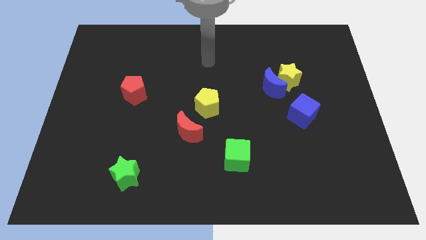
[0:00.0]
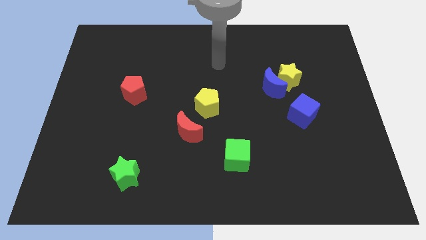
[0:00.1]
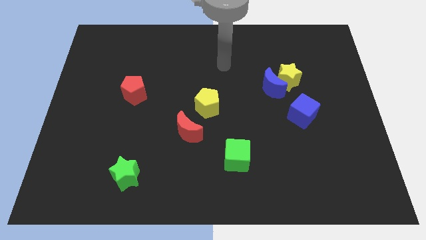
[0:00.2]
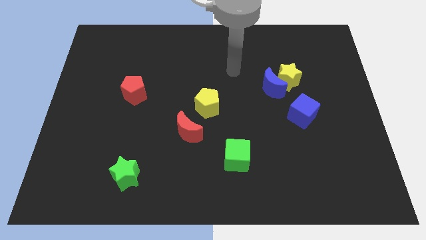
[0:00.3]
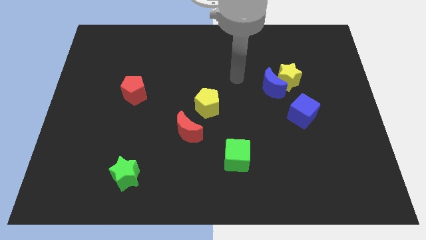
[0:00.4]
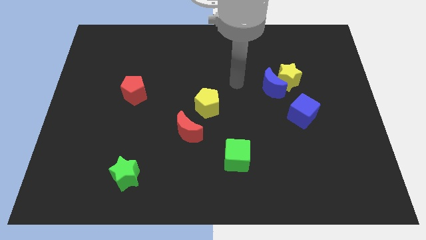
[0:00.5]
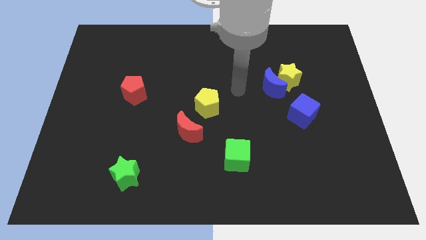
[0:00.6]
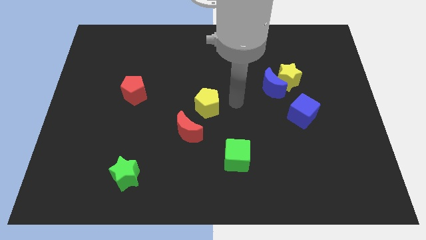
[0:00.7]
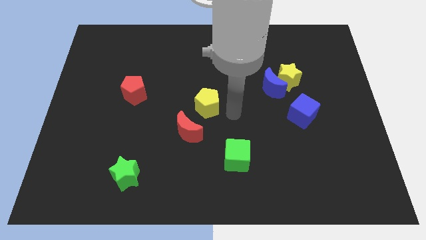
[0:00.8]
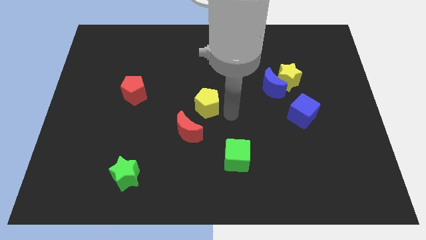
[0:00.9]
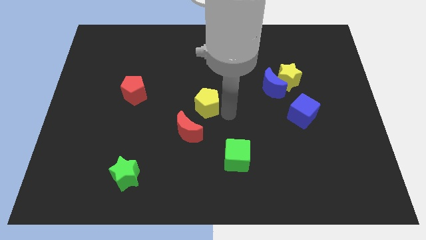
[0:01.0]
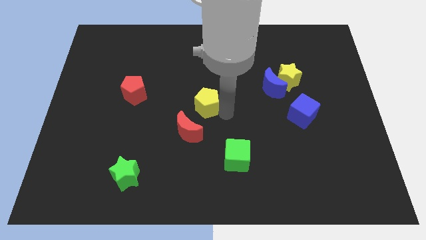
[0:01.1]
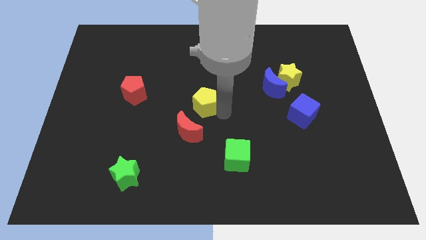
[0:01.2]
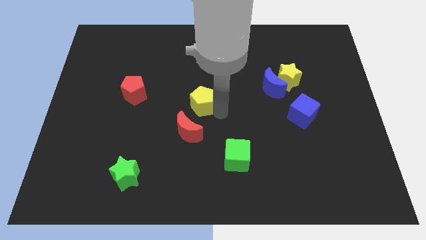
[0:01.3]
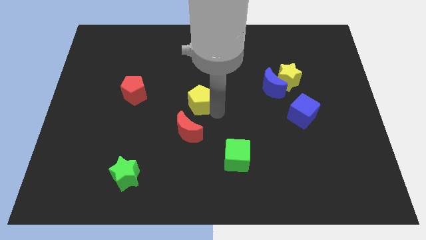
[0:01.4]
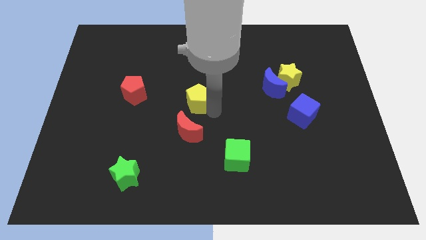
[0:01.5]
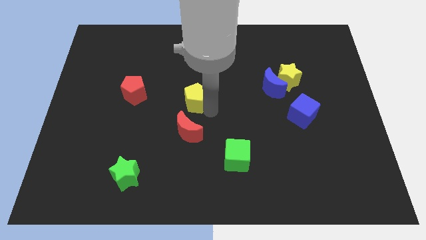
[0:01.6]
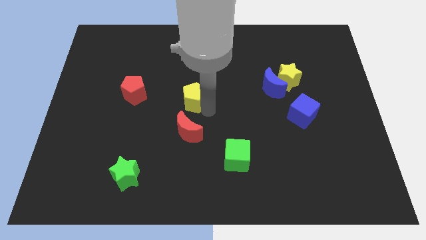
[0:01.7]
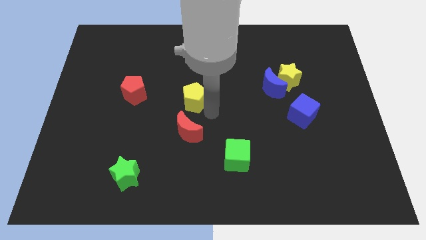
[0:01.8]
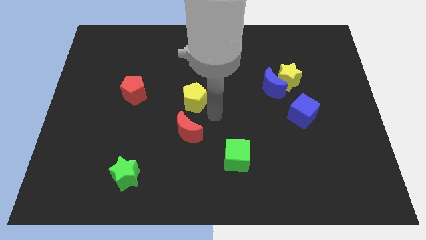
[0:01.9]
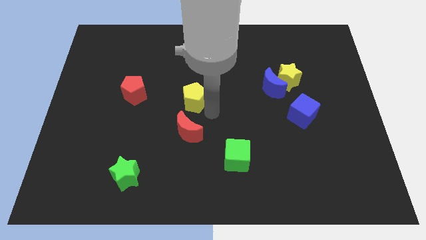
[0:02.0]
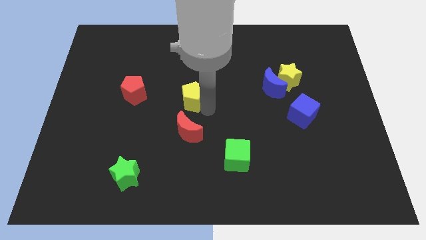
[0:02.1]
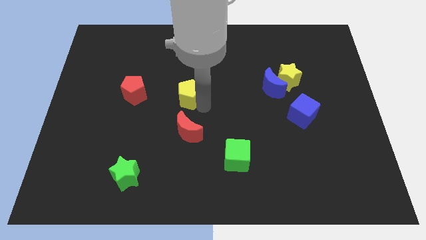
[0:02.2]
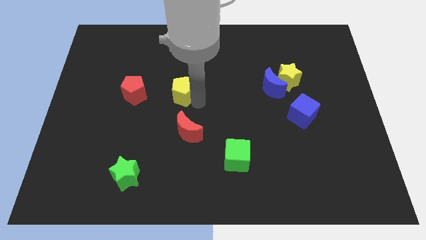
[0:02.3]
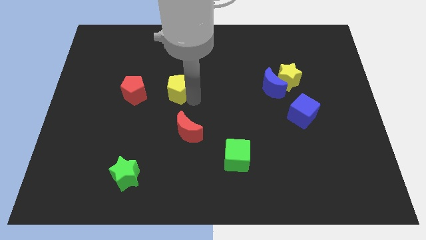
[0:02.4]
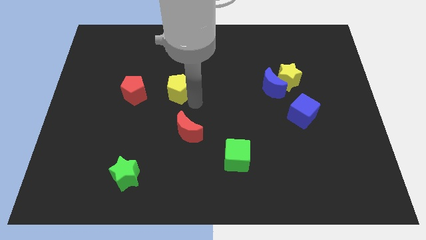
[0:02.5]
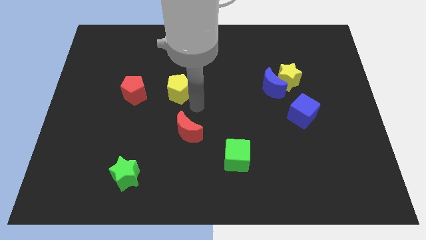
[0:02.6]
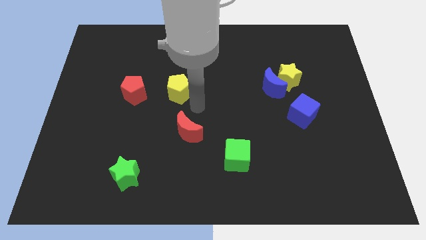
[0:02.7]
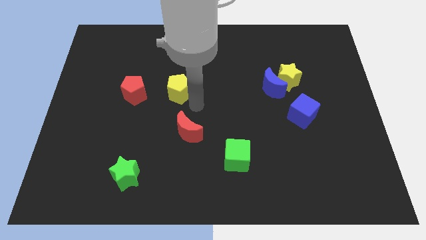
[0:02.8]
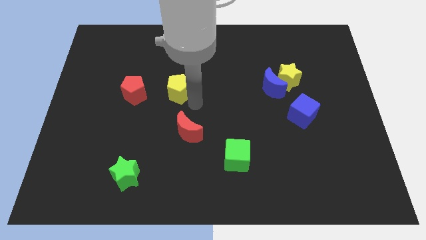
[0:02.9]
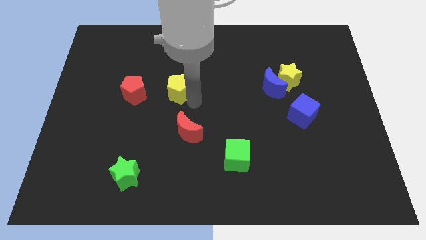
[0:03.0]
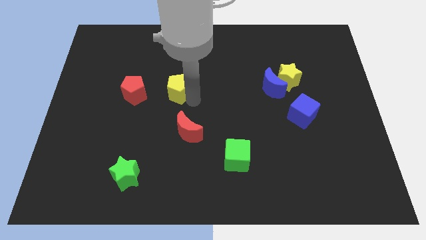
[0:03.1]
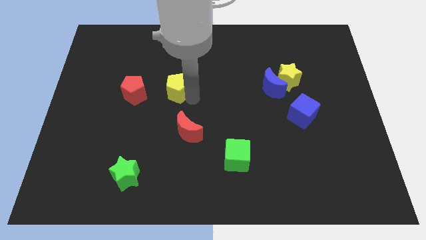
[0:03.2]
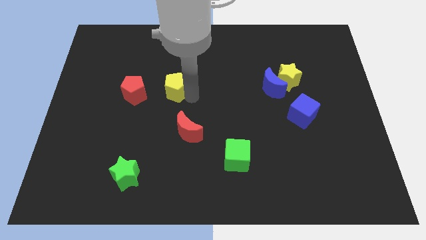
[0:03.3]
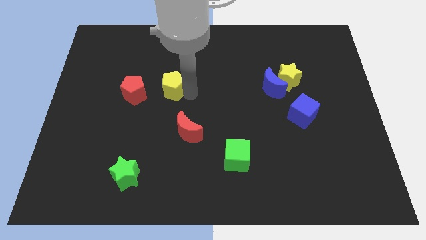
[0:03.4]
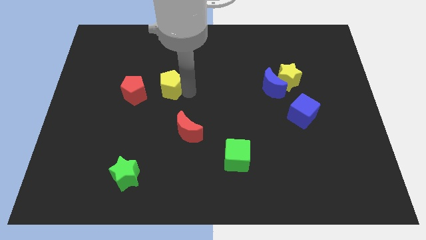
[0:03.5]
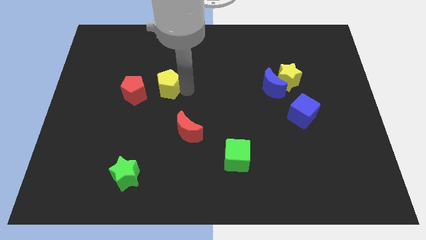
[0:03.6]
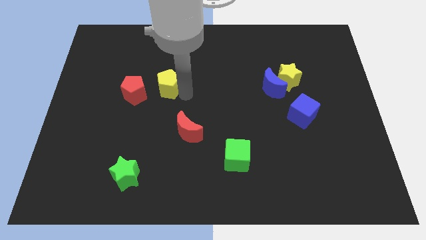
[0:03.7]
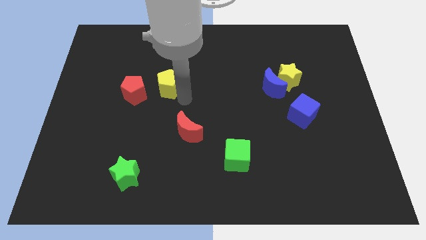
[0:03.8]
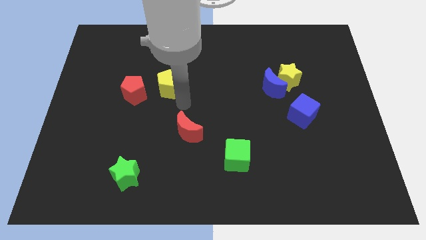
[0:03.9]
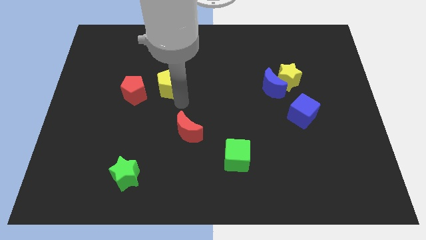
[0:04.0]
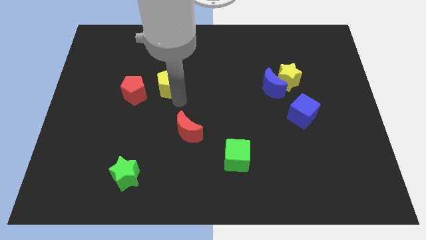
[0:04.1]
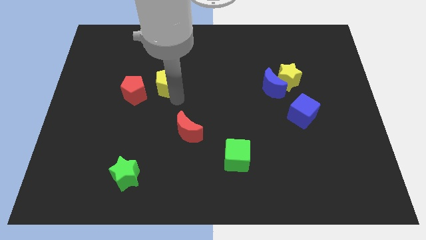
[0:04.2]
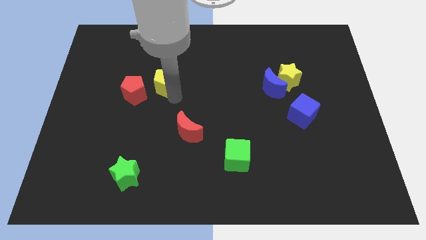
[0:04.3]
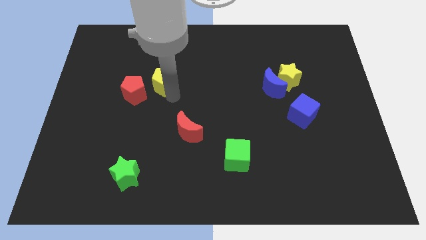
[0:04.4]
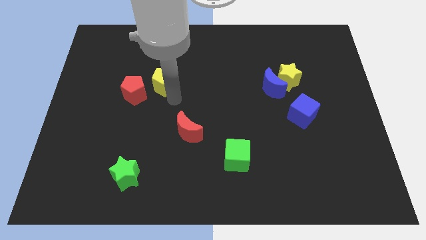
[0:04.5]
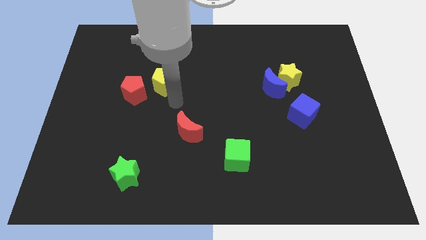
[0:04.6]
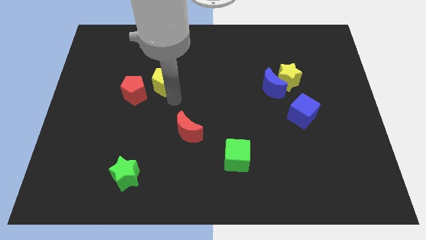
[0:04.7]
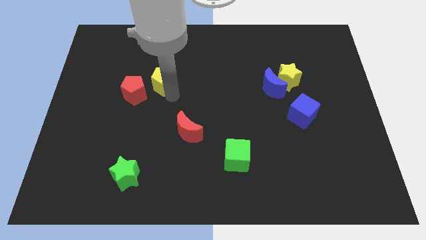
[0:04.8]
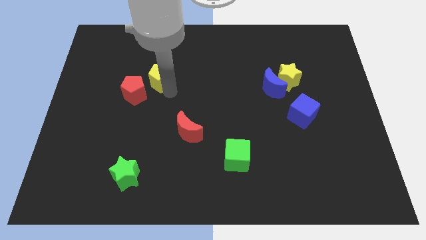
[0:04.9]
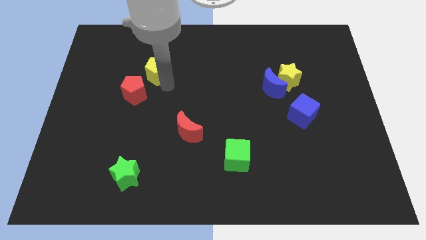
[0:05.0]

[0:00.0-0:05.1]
push the yellow pentagon above the red pentagon

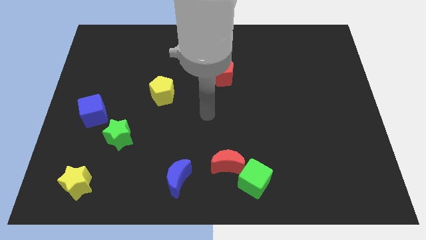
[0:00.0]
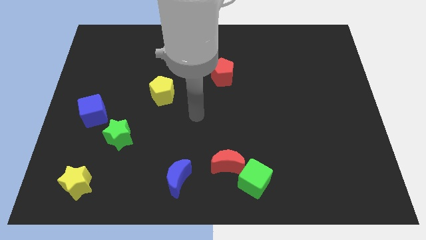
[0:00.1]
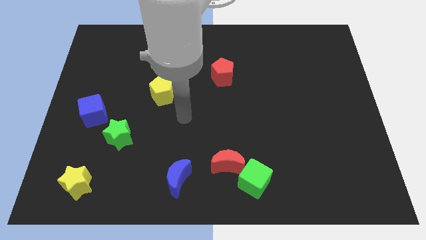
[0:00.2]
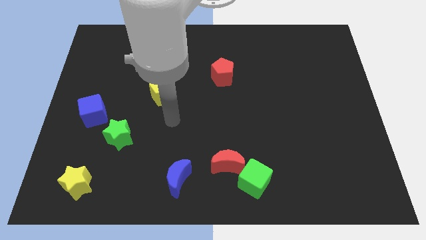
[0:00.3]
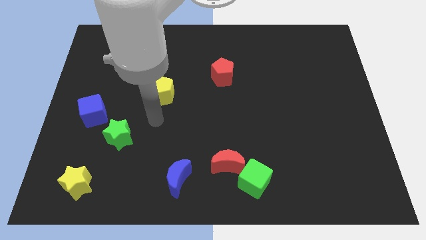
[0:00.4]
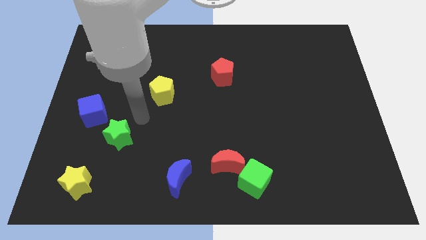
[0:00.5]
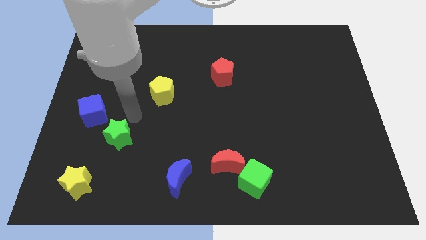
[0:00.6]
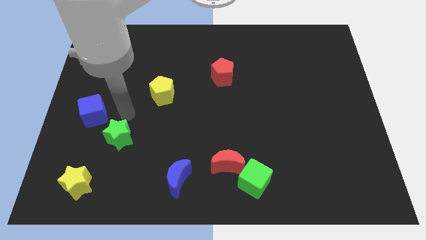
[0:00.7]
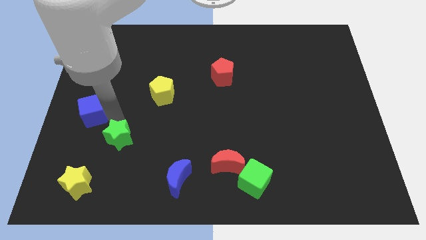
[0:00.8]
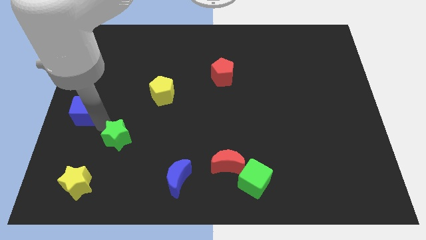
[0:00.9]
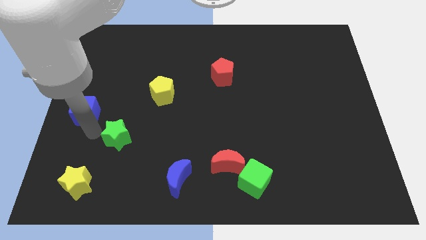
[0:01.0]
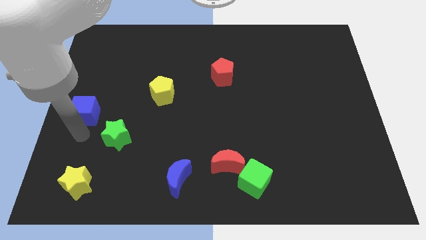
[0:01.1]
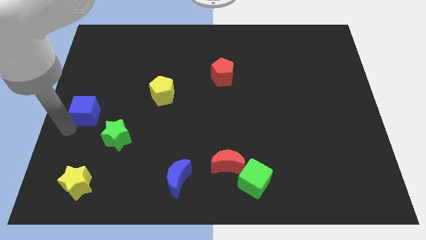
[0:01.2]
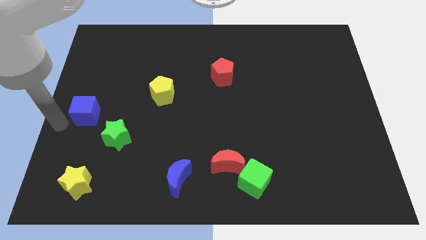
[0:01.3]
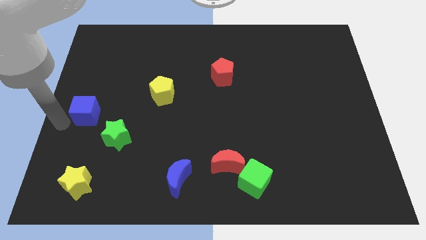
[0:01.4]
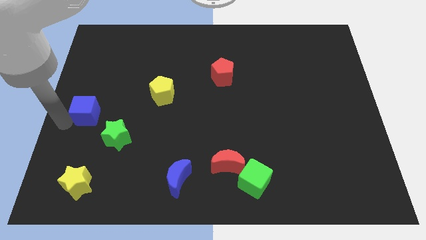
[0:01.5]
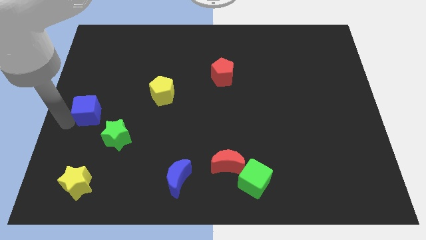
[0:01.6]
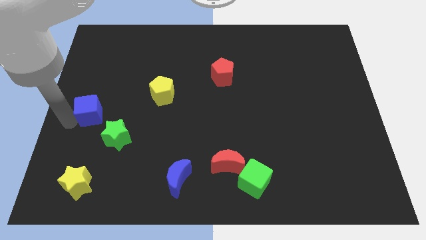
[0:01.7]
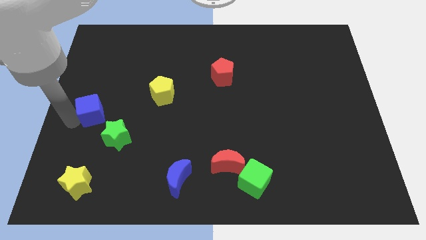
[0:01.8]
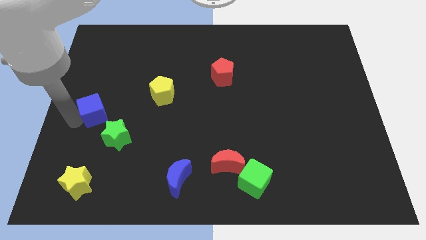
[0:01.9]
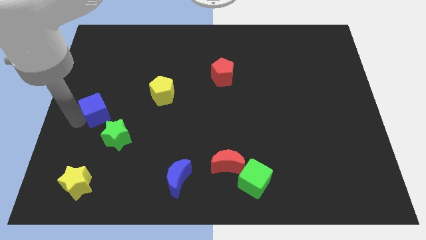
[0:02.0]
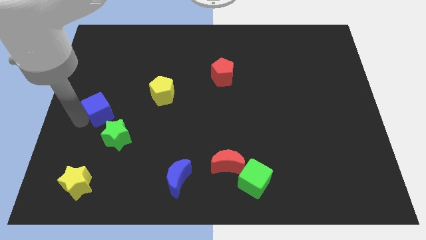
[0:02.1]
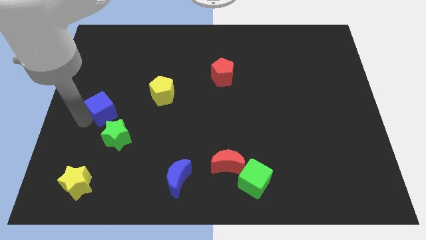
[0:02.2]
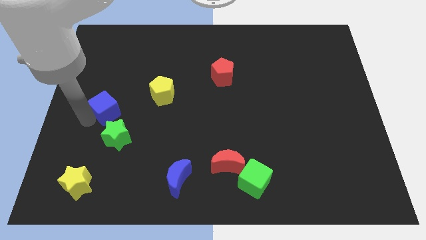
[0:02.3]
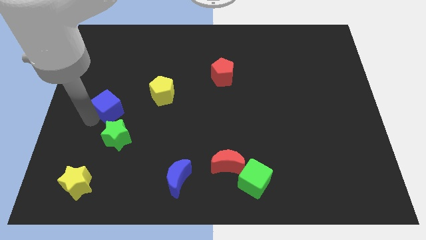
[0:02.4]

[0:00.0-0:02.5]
move the blue cube to the left side of the yellow pentagon

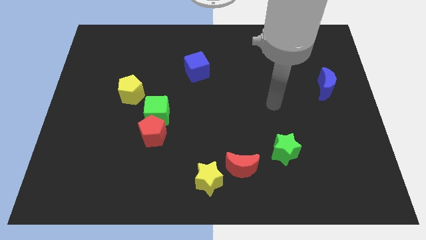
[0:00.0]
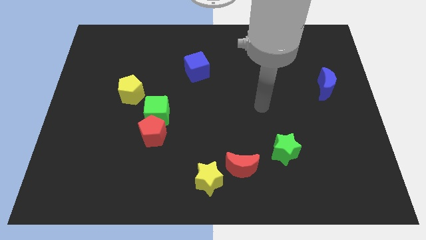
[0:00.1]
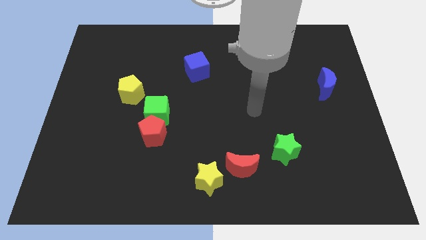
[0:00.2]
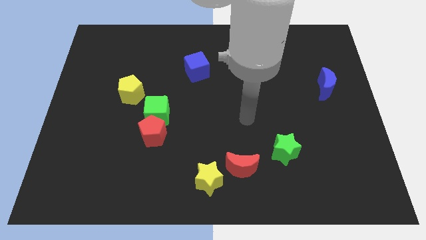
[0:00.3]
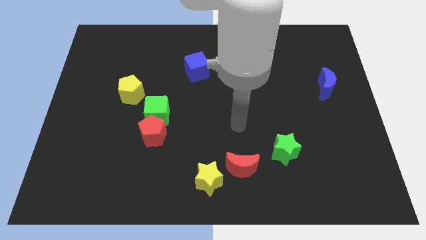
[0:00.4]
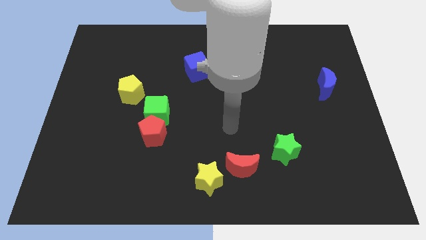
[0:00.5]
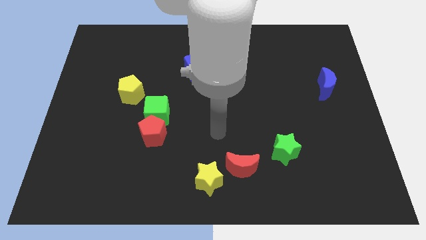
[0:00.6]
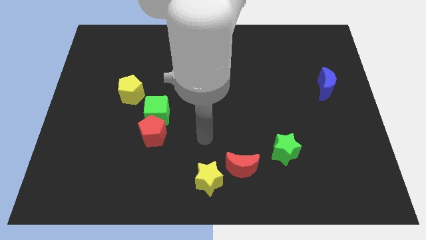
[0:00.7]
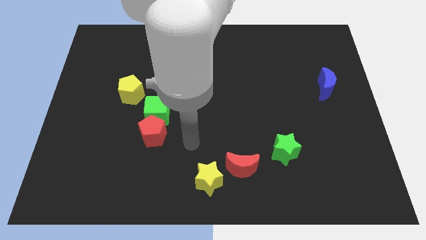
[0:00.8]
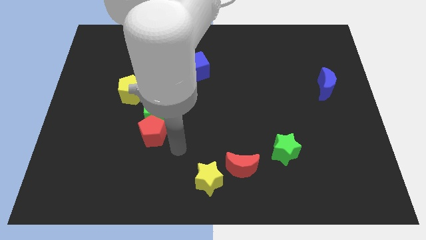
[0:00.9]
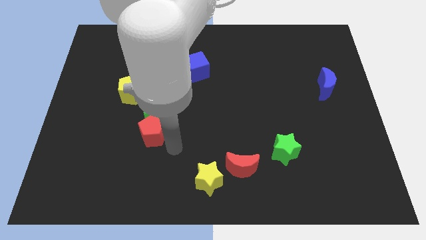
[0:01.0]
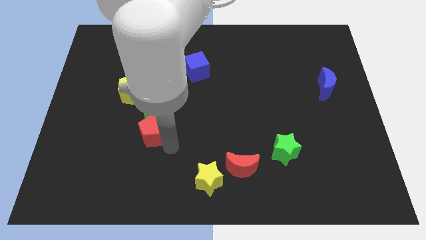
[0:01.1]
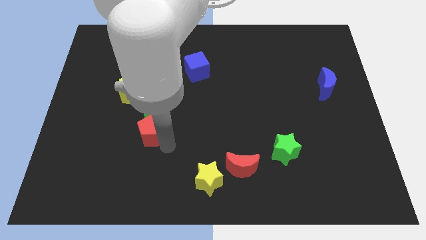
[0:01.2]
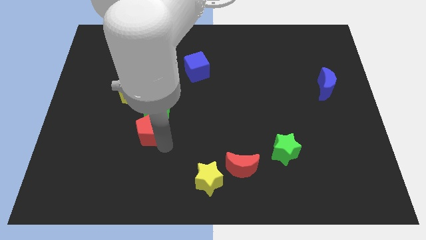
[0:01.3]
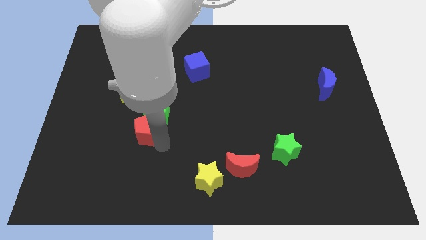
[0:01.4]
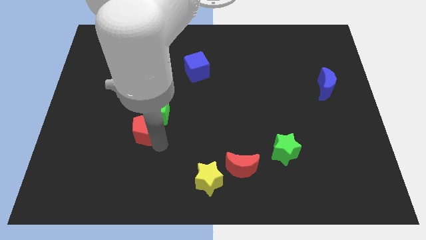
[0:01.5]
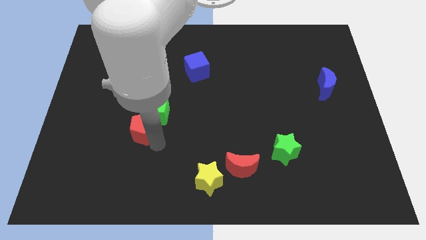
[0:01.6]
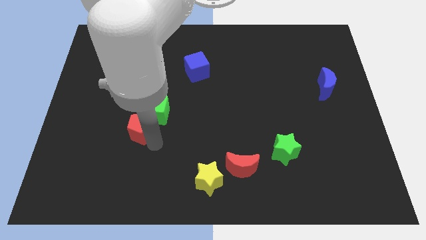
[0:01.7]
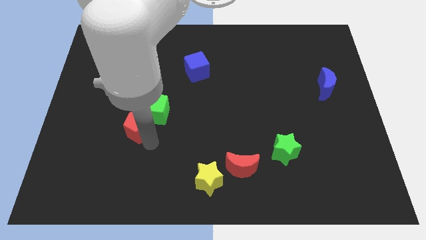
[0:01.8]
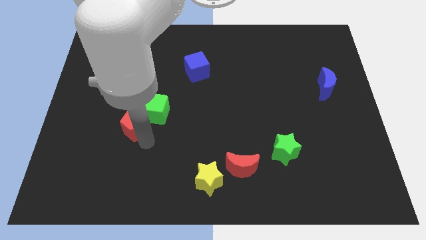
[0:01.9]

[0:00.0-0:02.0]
put the red pentagon just left of the green cube
